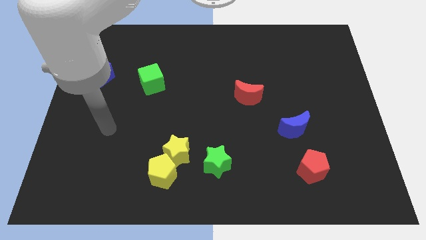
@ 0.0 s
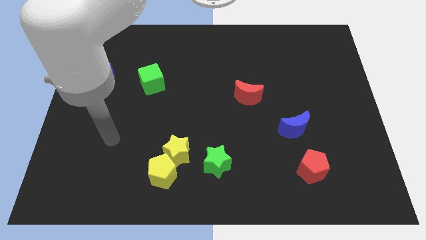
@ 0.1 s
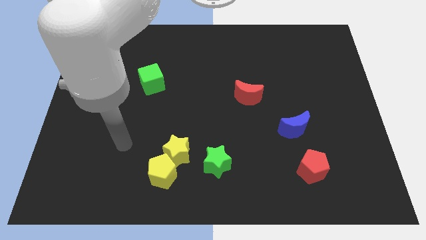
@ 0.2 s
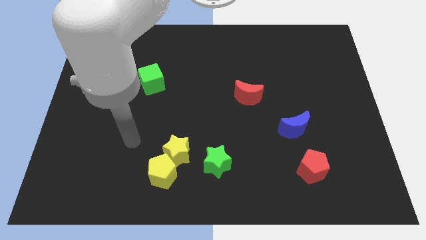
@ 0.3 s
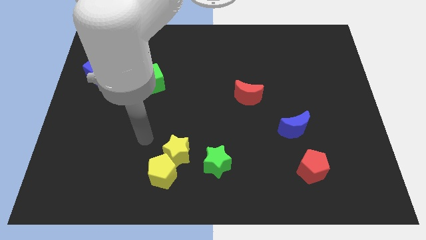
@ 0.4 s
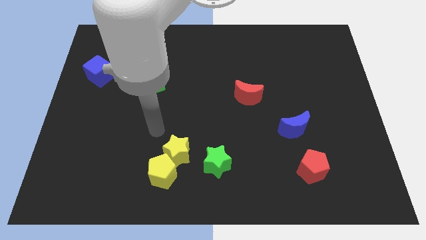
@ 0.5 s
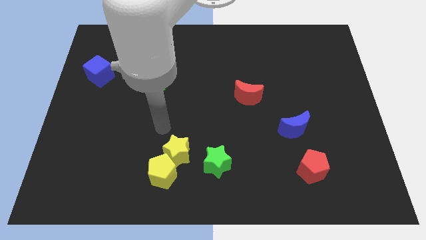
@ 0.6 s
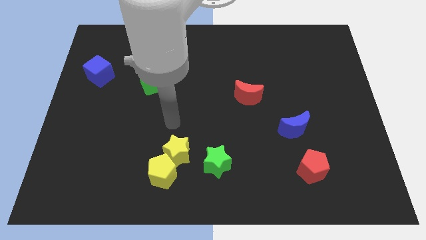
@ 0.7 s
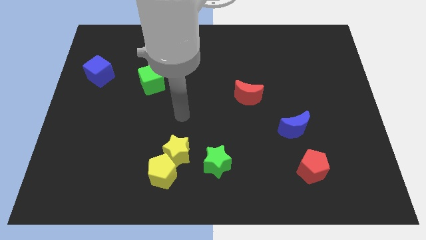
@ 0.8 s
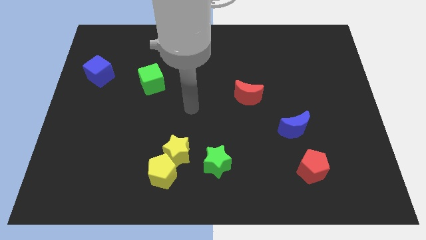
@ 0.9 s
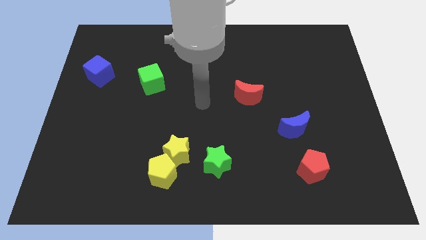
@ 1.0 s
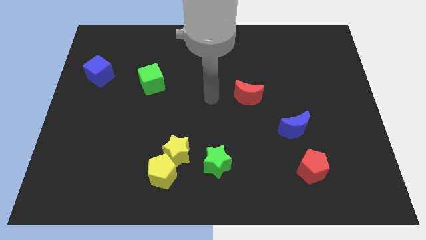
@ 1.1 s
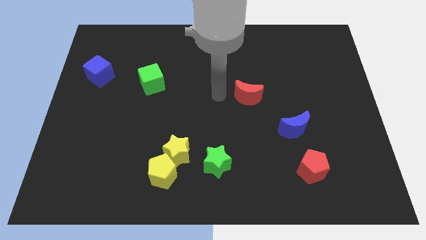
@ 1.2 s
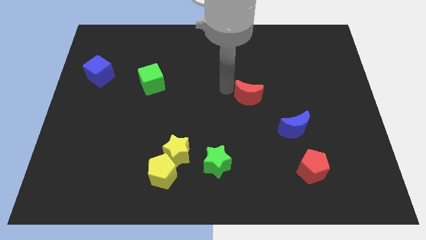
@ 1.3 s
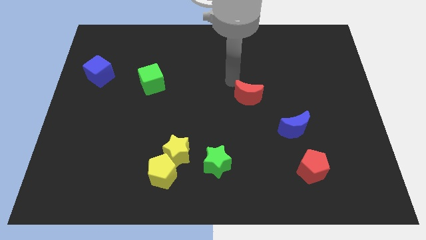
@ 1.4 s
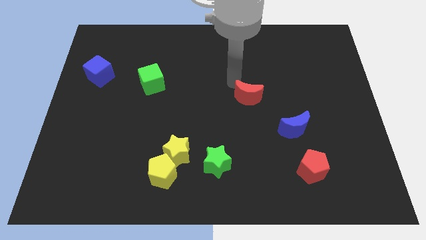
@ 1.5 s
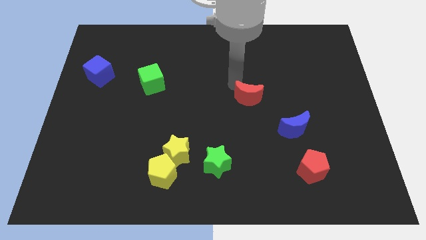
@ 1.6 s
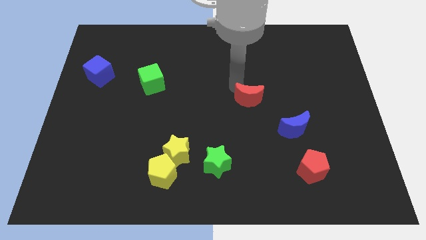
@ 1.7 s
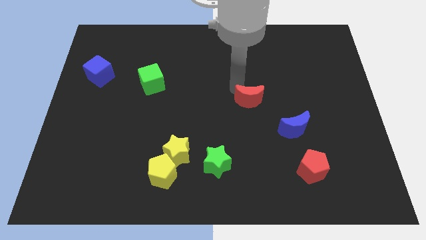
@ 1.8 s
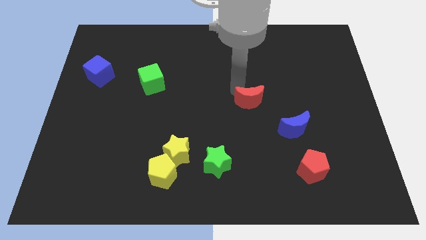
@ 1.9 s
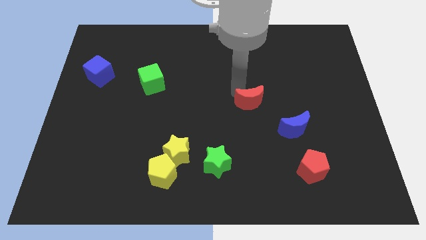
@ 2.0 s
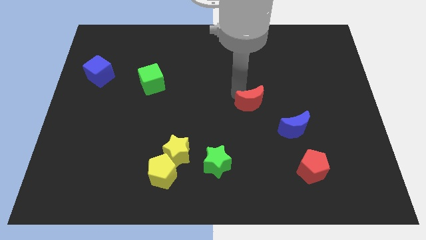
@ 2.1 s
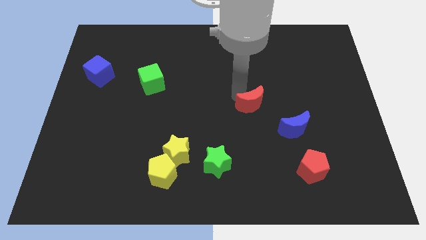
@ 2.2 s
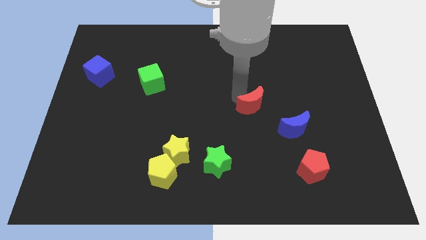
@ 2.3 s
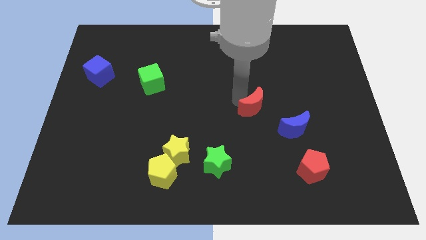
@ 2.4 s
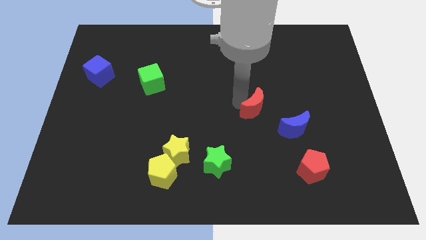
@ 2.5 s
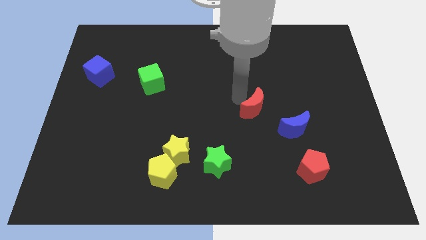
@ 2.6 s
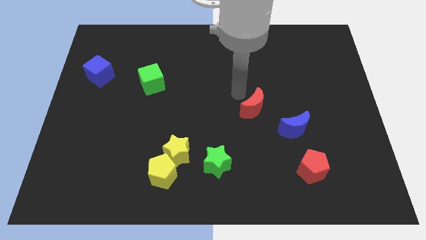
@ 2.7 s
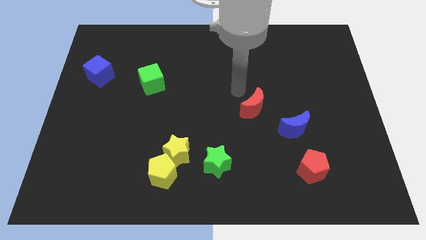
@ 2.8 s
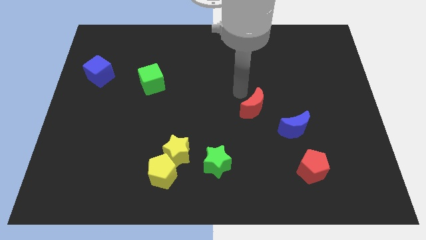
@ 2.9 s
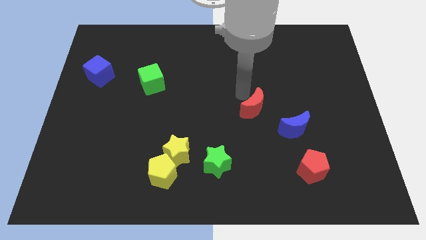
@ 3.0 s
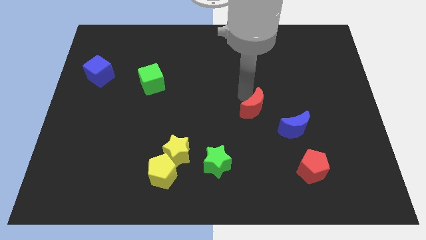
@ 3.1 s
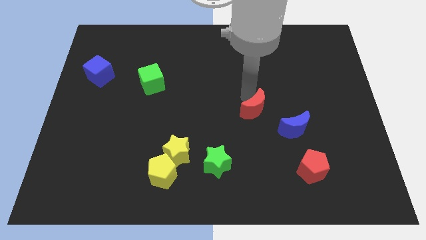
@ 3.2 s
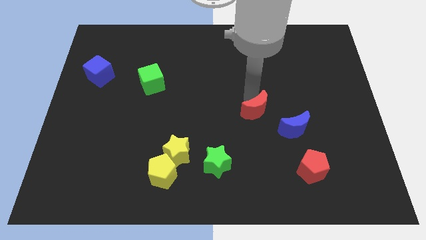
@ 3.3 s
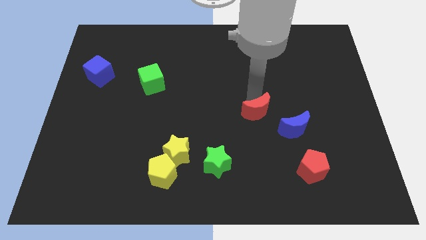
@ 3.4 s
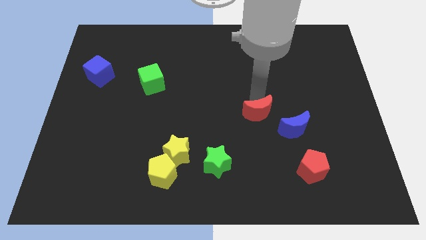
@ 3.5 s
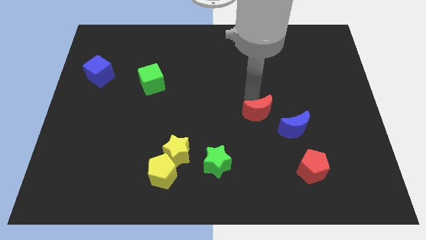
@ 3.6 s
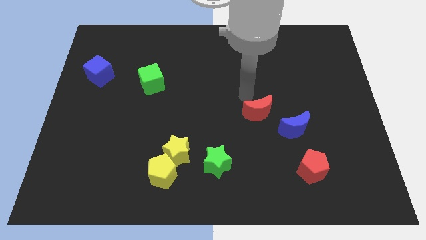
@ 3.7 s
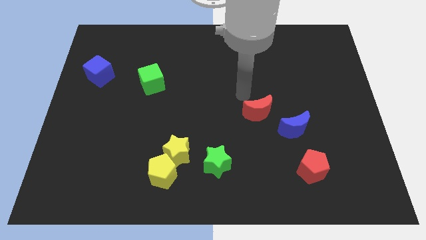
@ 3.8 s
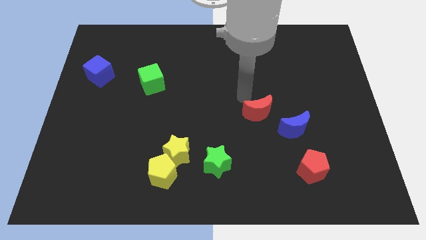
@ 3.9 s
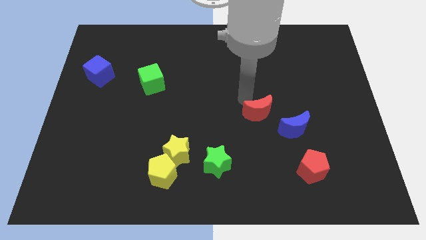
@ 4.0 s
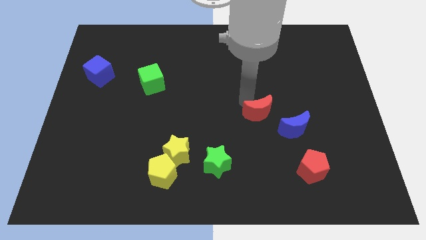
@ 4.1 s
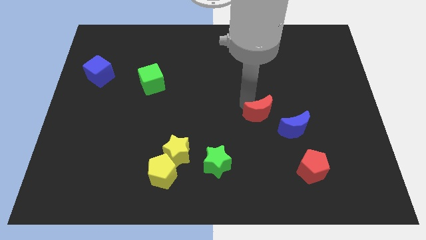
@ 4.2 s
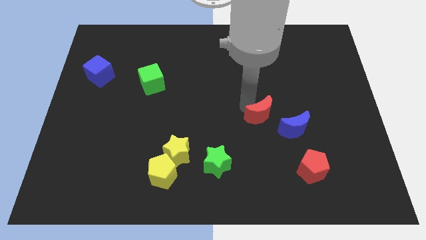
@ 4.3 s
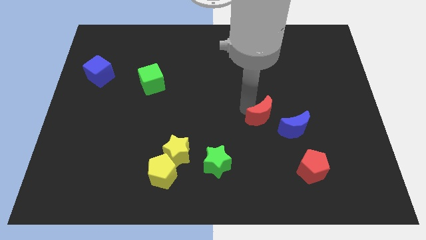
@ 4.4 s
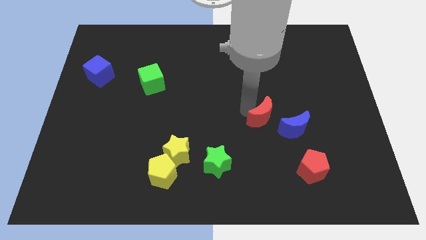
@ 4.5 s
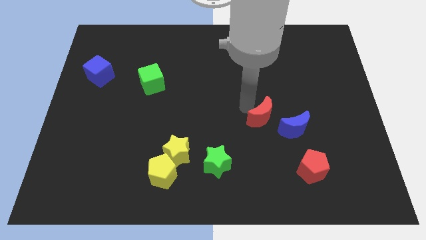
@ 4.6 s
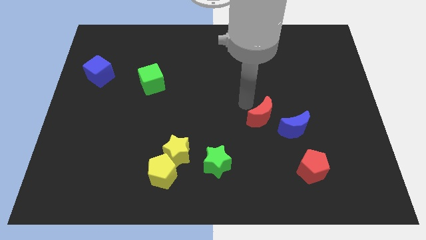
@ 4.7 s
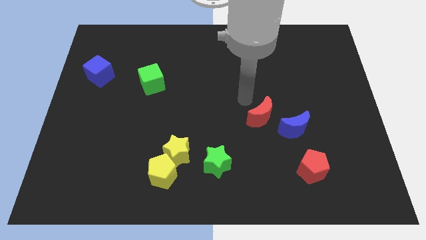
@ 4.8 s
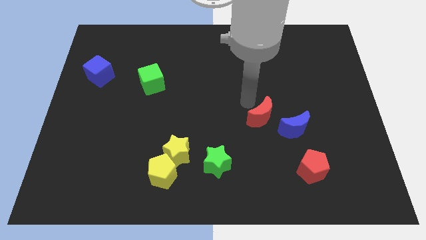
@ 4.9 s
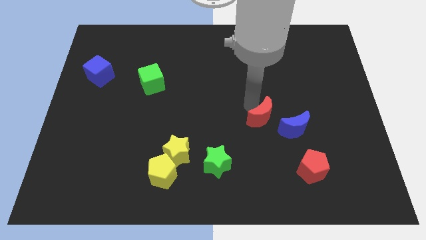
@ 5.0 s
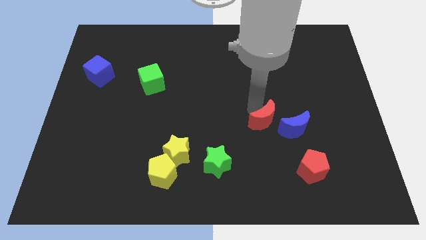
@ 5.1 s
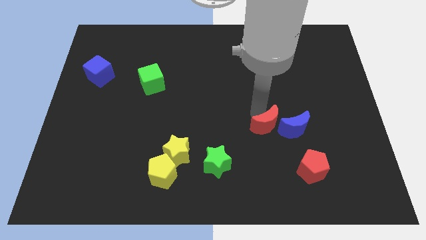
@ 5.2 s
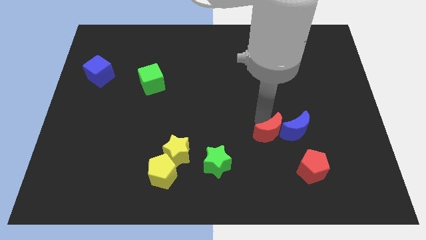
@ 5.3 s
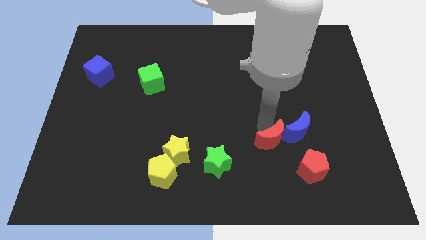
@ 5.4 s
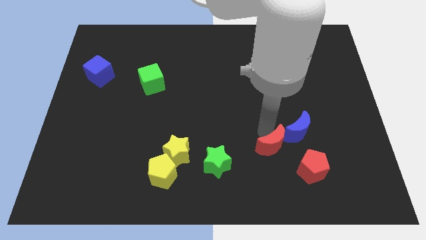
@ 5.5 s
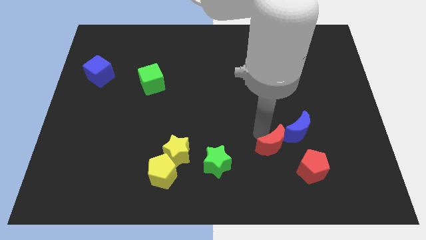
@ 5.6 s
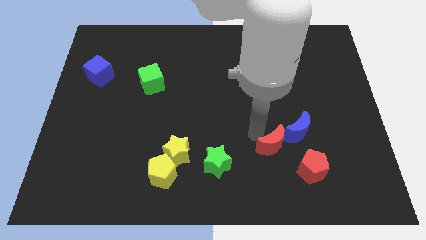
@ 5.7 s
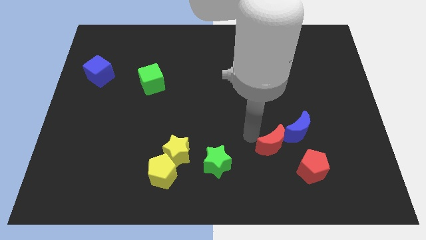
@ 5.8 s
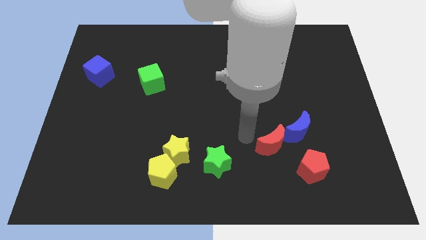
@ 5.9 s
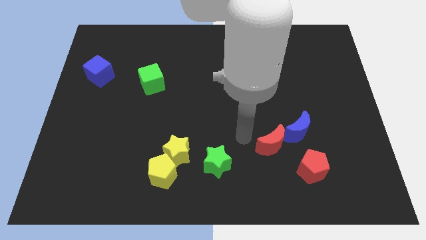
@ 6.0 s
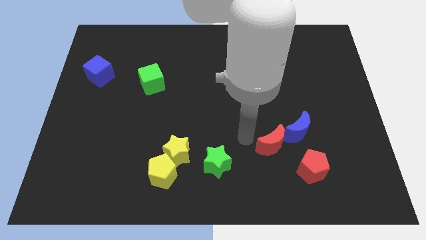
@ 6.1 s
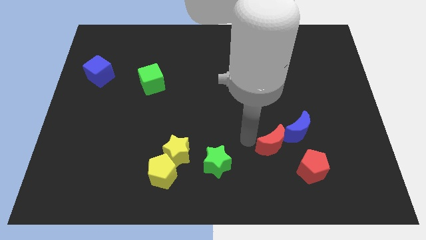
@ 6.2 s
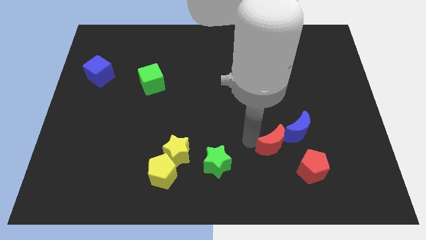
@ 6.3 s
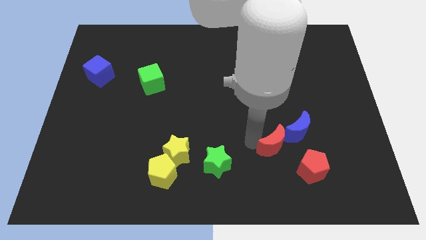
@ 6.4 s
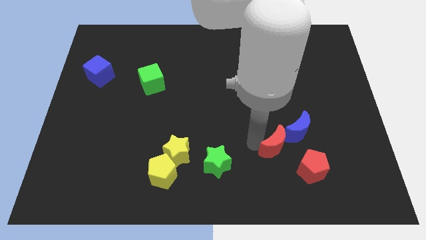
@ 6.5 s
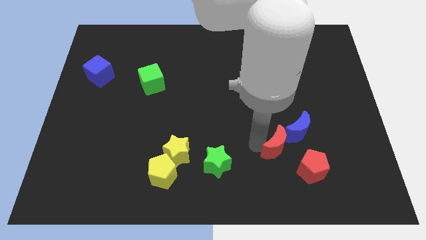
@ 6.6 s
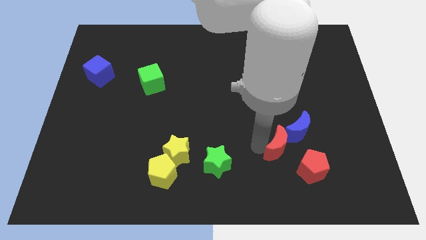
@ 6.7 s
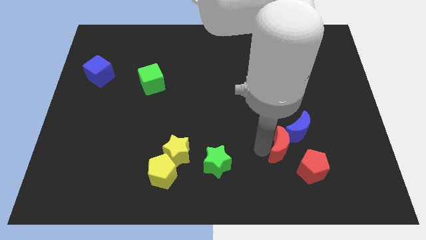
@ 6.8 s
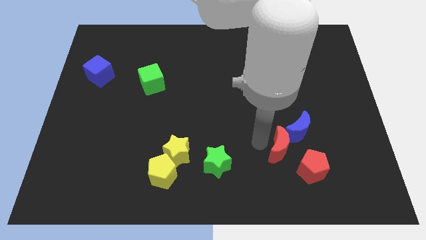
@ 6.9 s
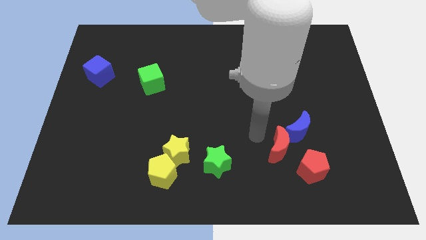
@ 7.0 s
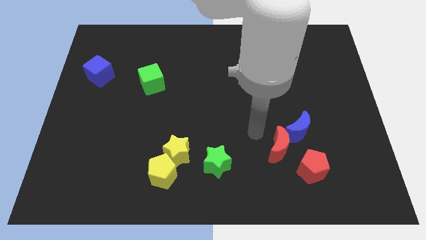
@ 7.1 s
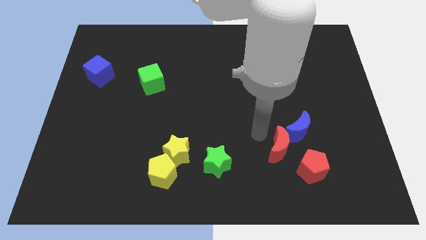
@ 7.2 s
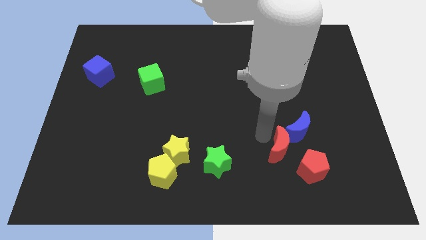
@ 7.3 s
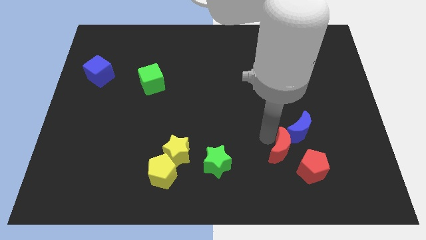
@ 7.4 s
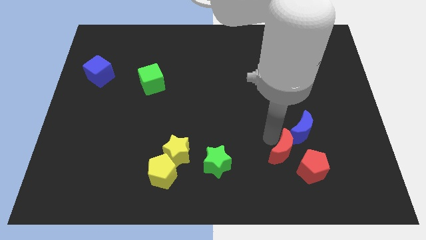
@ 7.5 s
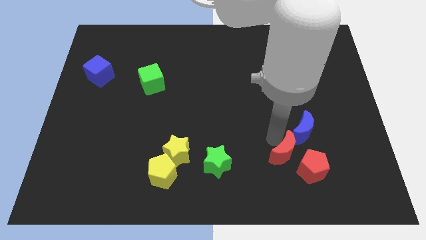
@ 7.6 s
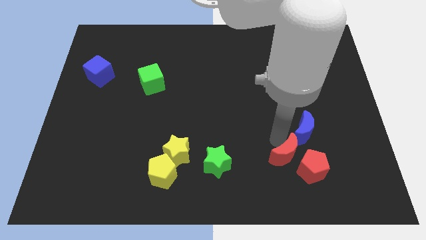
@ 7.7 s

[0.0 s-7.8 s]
push the red moon to the red pentagon

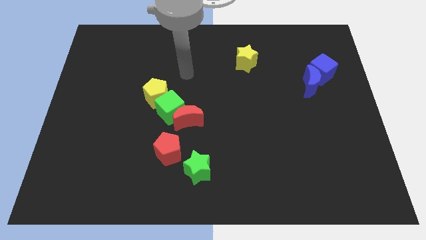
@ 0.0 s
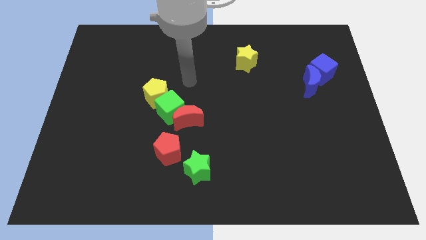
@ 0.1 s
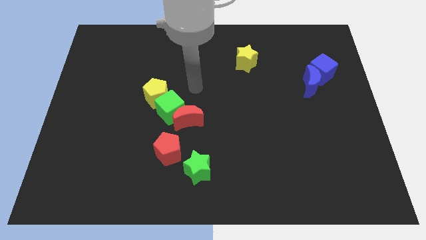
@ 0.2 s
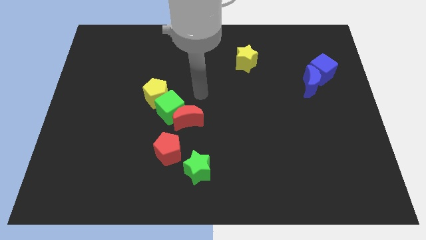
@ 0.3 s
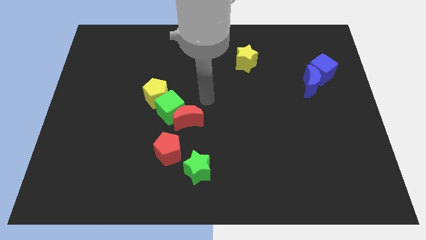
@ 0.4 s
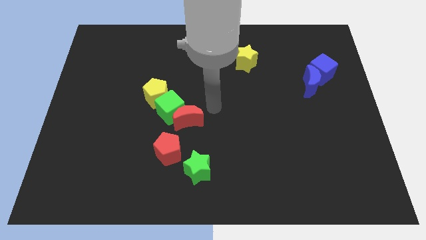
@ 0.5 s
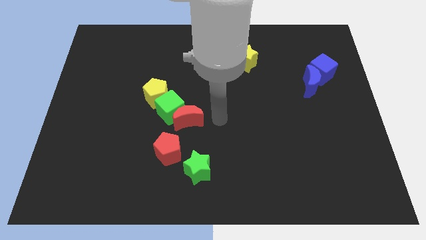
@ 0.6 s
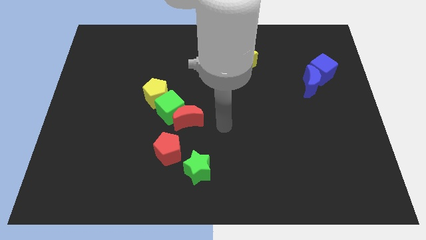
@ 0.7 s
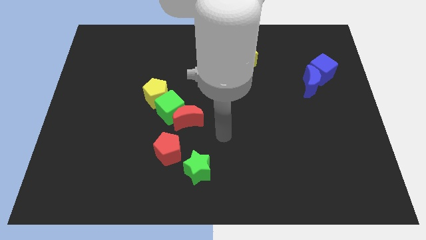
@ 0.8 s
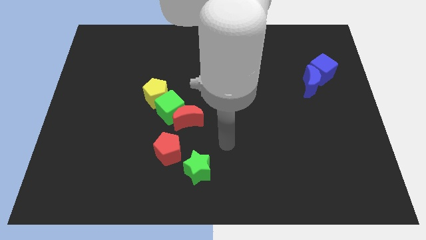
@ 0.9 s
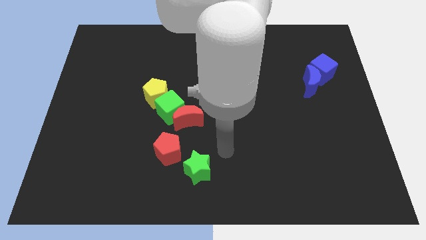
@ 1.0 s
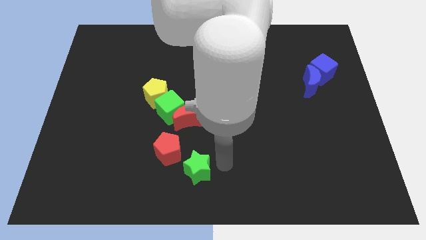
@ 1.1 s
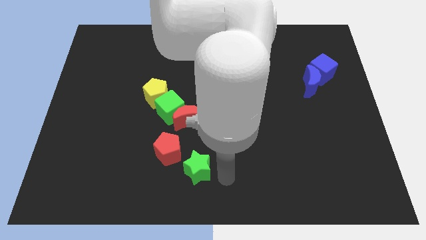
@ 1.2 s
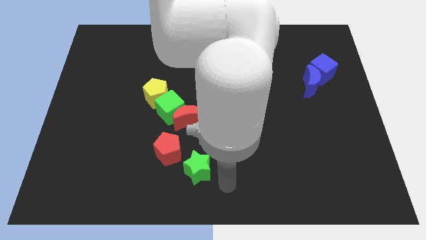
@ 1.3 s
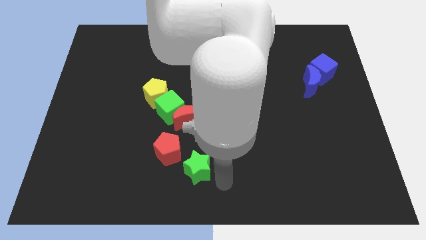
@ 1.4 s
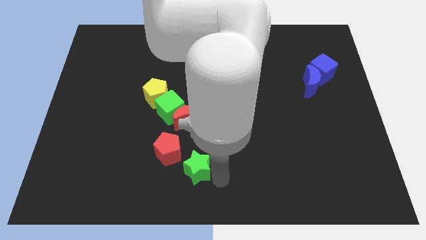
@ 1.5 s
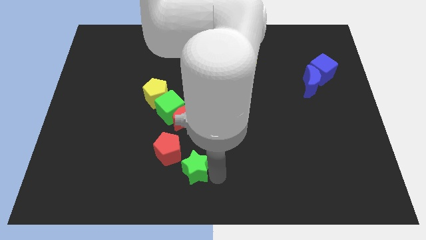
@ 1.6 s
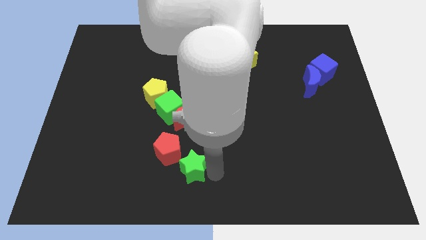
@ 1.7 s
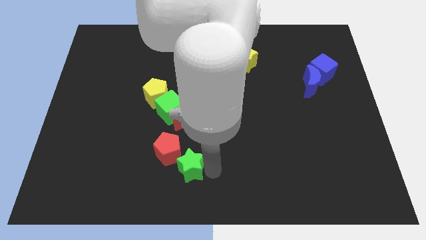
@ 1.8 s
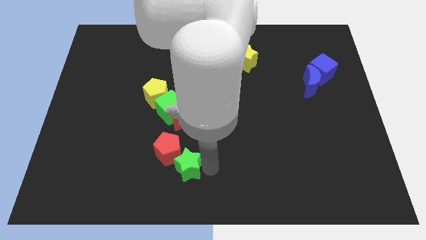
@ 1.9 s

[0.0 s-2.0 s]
move the green star to the red pentagon
